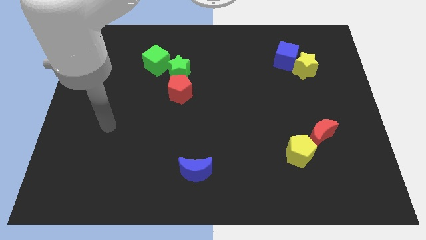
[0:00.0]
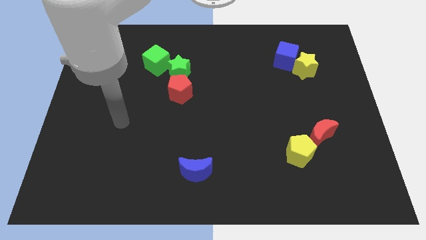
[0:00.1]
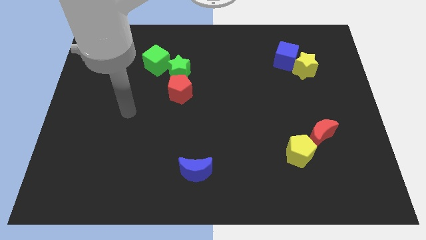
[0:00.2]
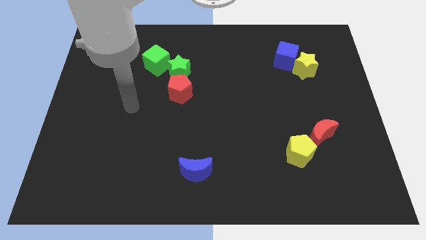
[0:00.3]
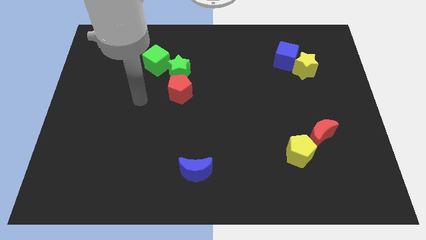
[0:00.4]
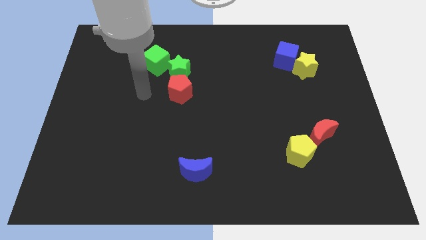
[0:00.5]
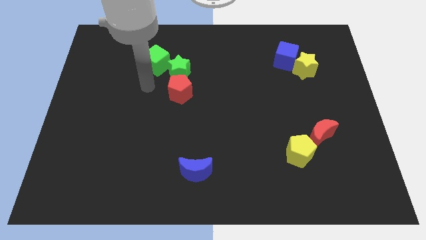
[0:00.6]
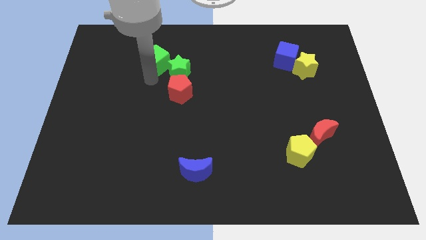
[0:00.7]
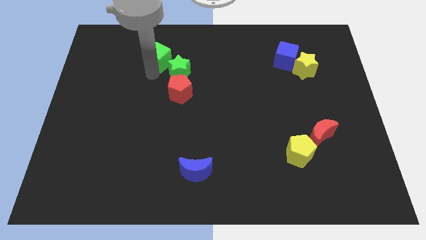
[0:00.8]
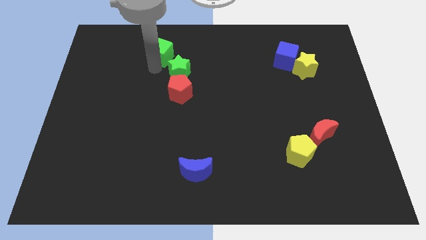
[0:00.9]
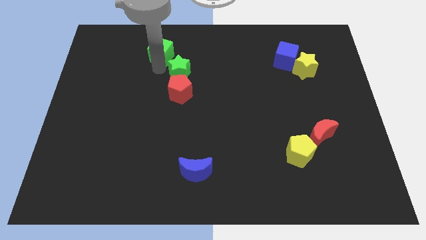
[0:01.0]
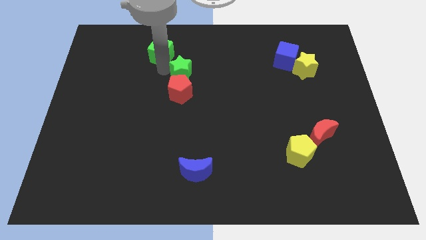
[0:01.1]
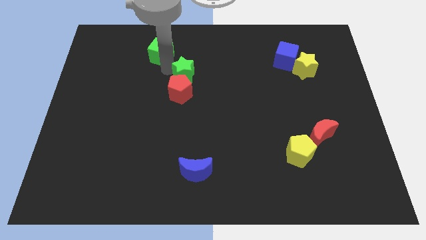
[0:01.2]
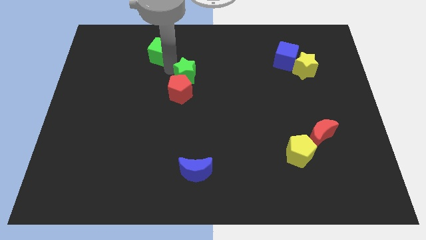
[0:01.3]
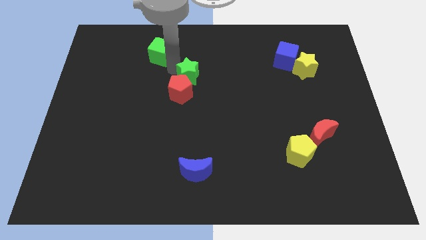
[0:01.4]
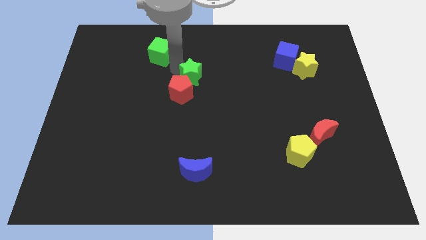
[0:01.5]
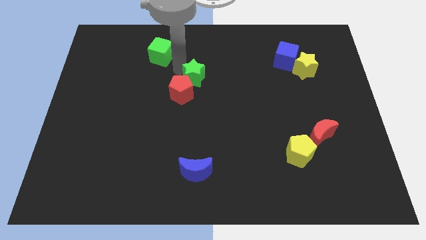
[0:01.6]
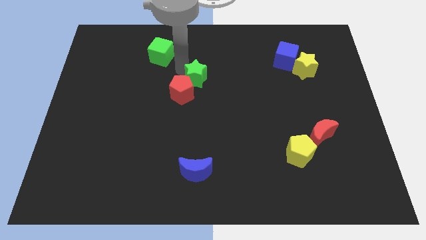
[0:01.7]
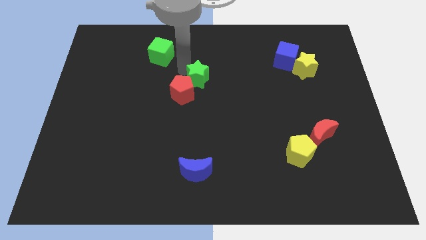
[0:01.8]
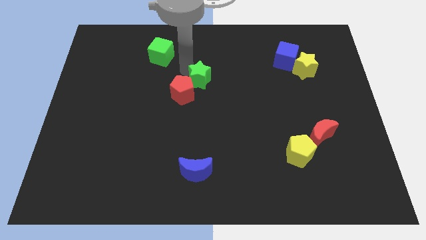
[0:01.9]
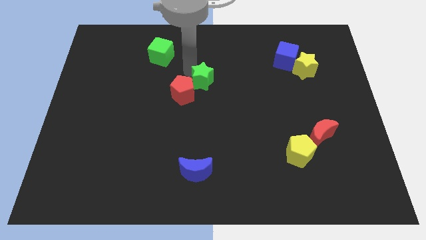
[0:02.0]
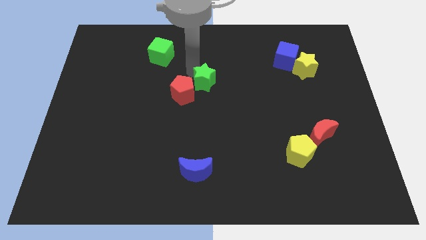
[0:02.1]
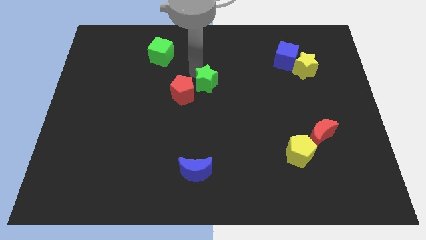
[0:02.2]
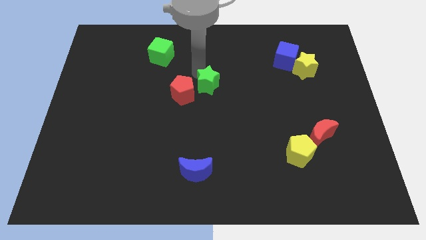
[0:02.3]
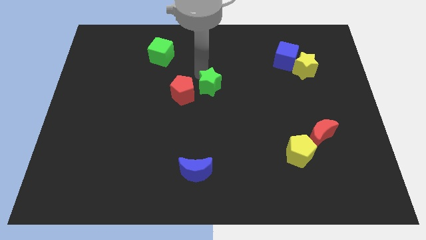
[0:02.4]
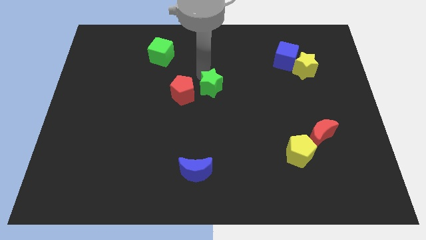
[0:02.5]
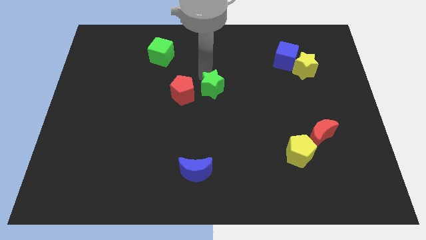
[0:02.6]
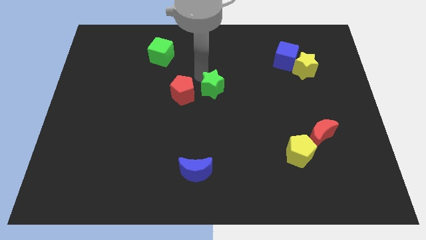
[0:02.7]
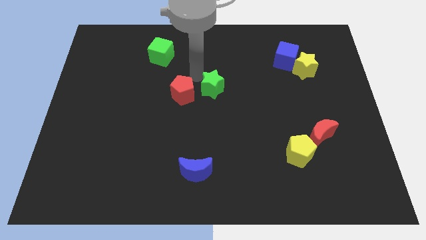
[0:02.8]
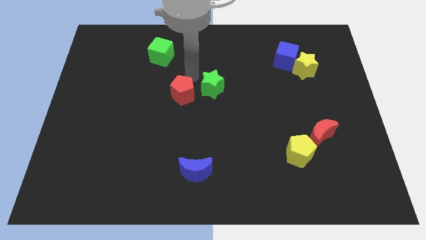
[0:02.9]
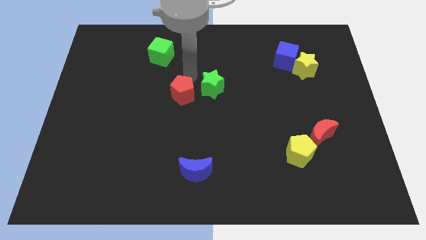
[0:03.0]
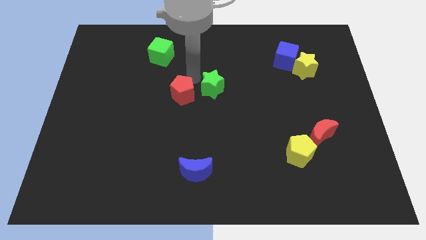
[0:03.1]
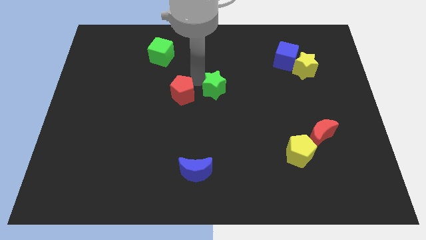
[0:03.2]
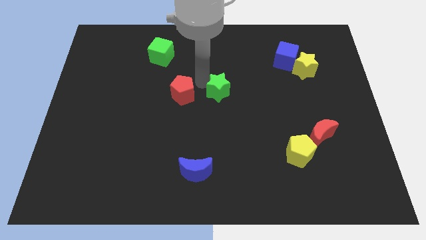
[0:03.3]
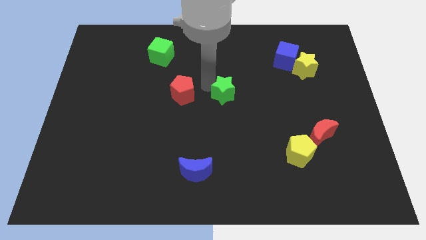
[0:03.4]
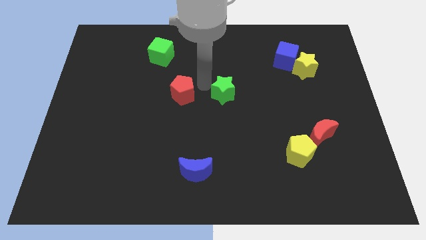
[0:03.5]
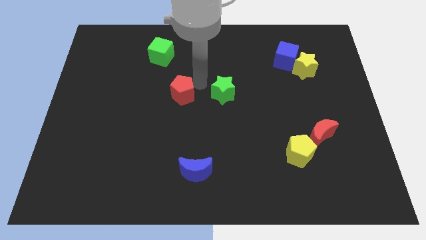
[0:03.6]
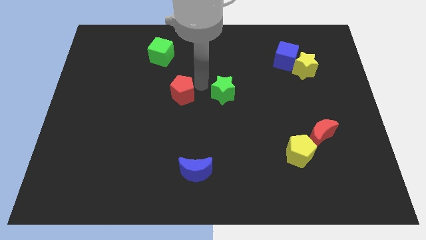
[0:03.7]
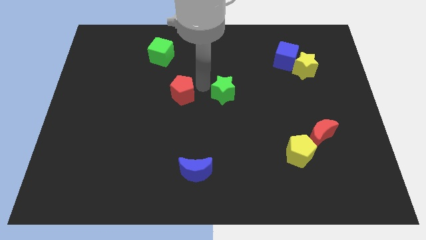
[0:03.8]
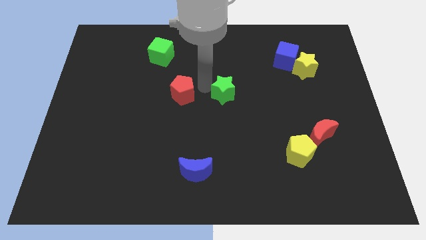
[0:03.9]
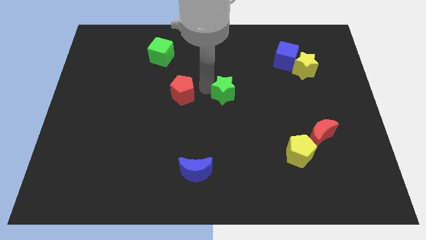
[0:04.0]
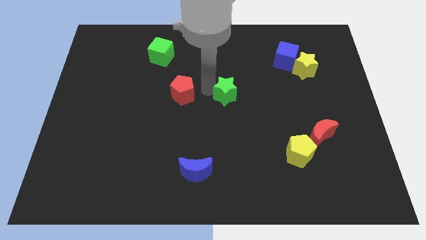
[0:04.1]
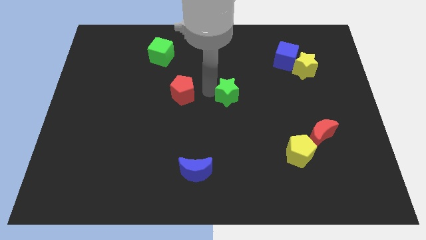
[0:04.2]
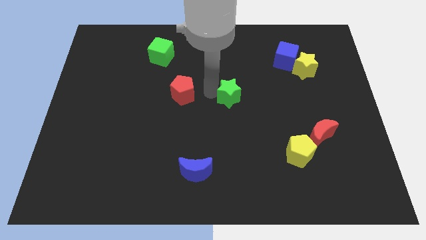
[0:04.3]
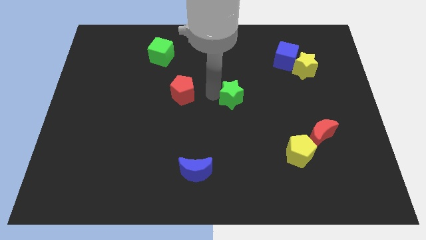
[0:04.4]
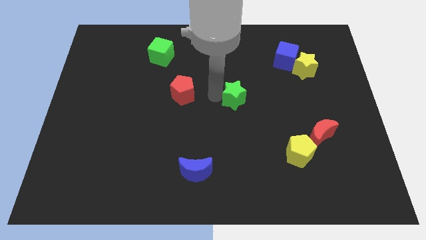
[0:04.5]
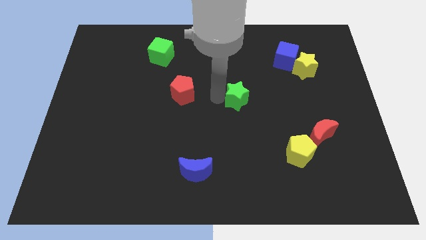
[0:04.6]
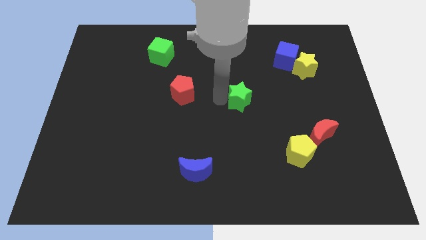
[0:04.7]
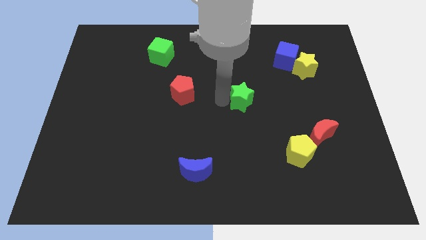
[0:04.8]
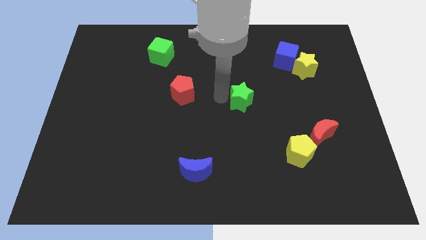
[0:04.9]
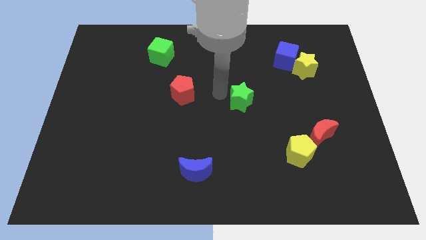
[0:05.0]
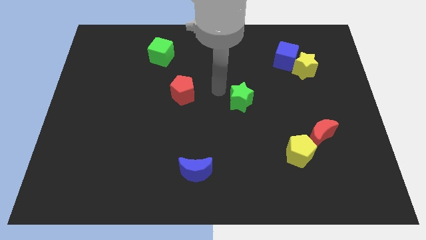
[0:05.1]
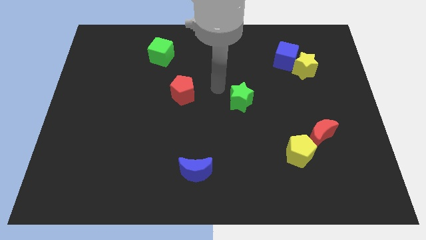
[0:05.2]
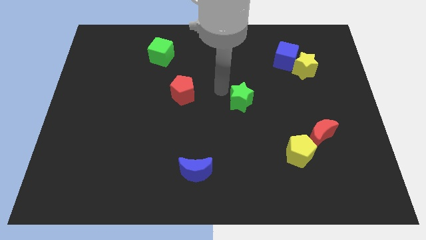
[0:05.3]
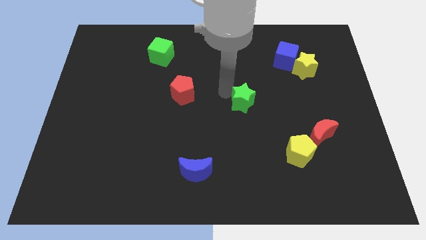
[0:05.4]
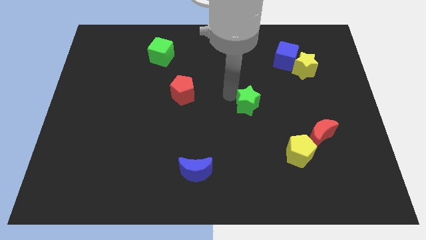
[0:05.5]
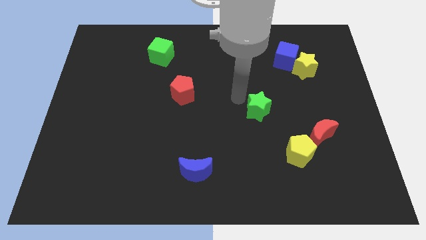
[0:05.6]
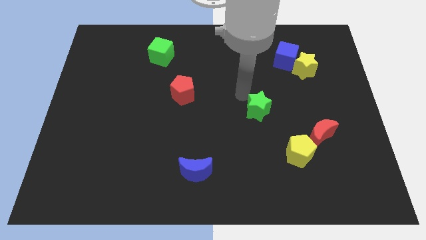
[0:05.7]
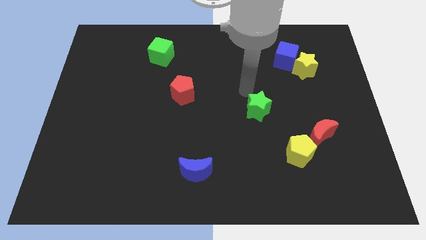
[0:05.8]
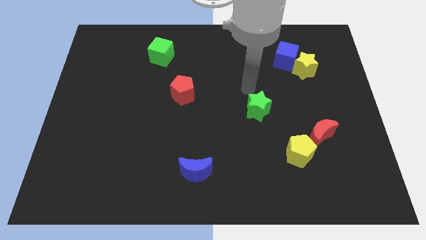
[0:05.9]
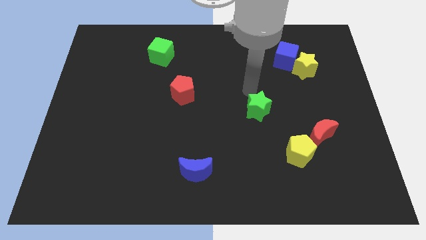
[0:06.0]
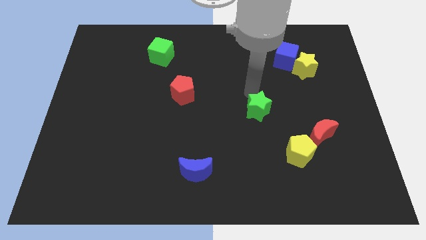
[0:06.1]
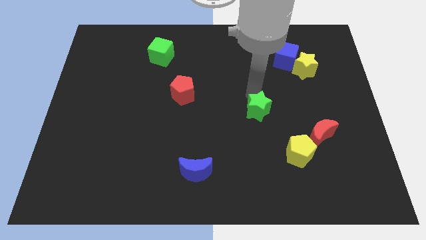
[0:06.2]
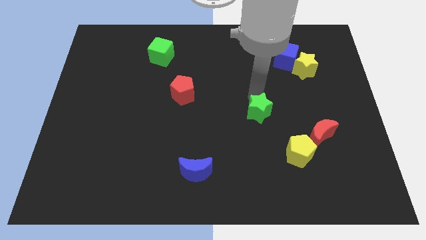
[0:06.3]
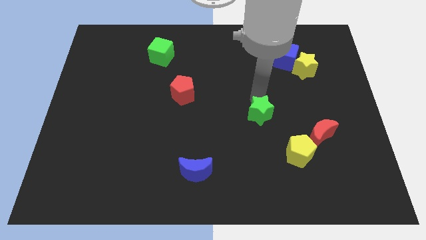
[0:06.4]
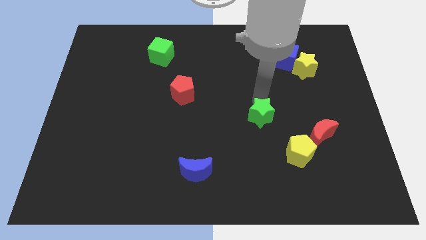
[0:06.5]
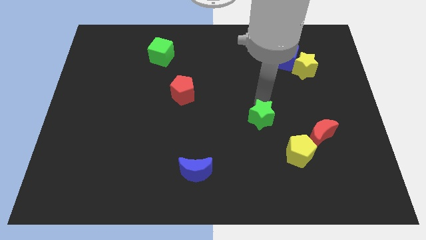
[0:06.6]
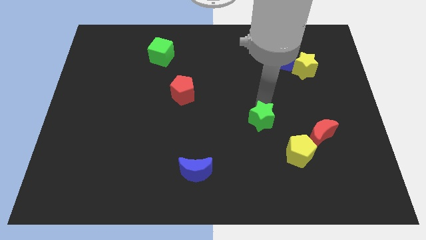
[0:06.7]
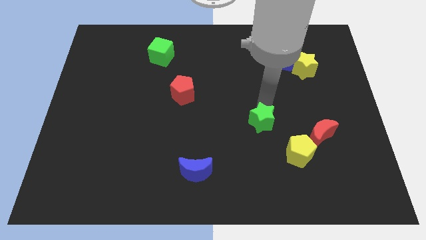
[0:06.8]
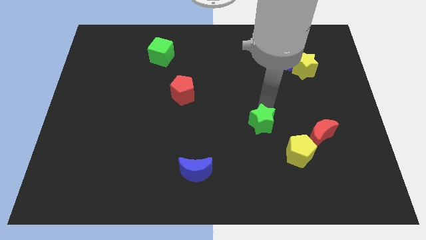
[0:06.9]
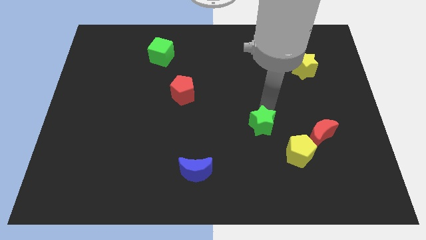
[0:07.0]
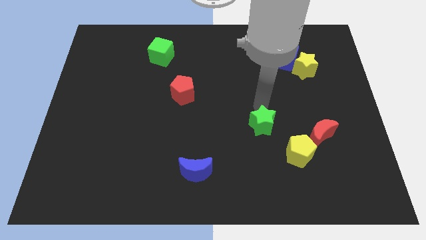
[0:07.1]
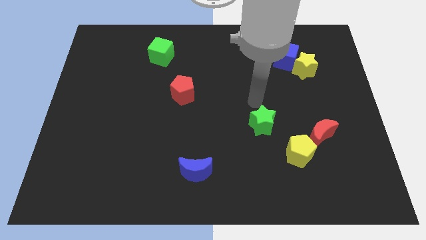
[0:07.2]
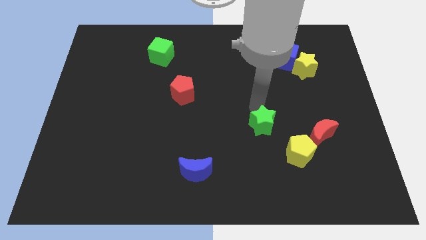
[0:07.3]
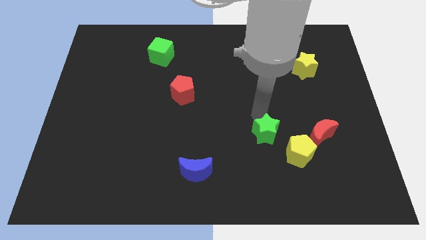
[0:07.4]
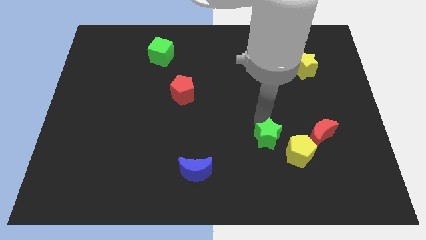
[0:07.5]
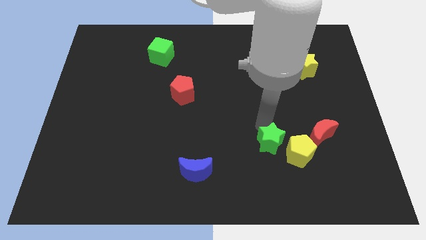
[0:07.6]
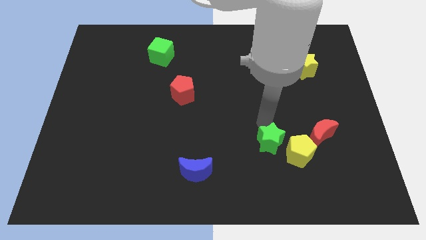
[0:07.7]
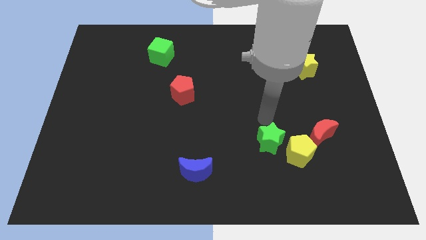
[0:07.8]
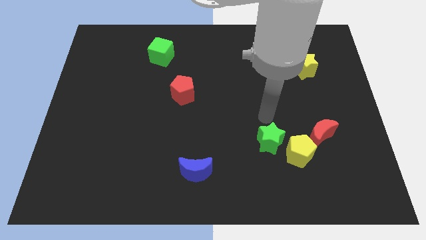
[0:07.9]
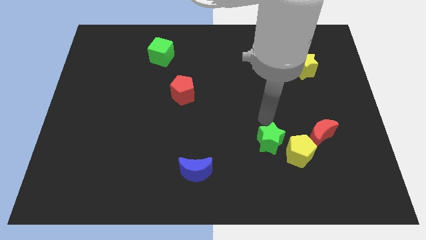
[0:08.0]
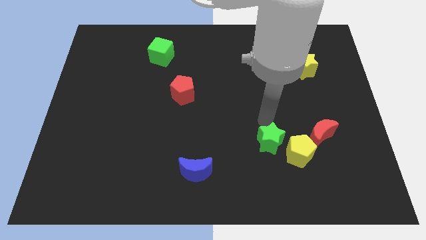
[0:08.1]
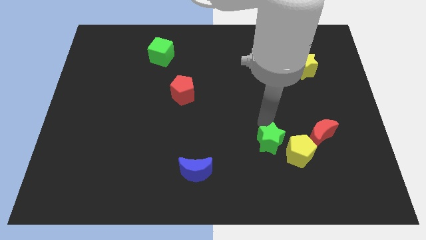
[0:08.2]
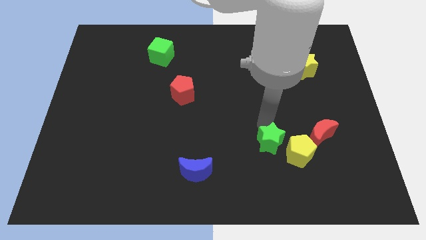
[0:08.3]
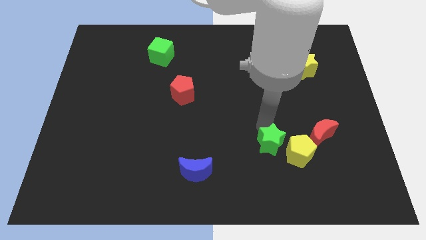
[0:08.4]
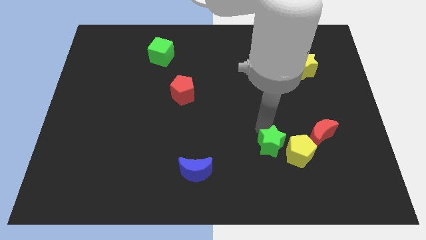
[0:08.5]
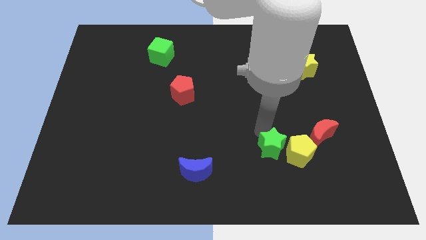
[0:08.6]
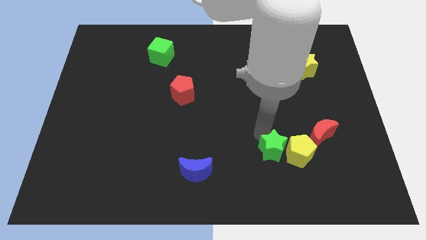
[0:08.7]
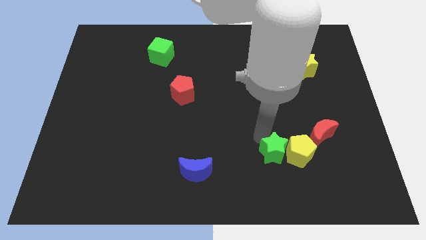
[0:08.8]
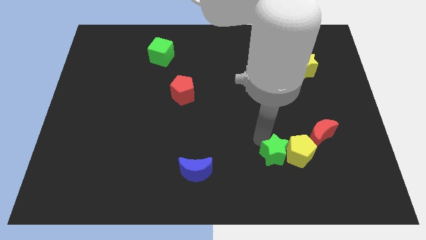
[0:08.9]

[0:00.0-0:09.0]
put the green star diagonally down and to the left of the red moon
